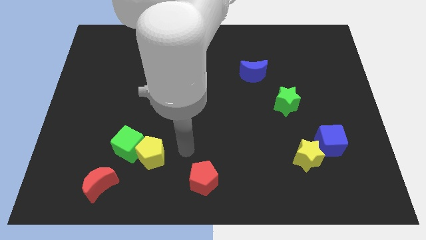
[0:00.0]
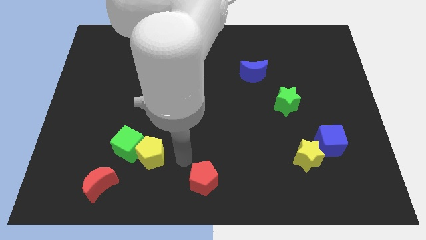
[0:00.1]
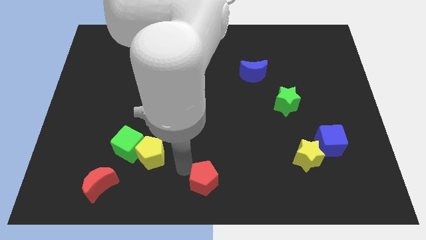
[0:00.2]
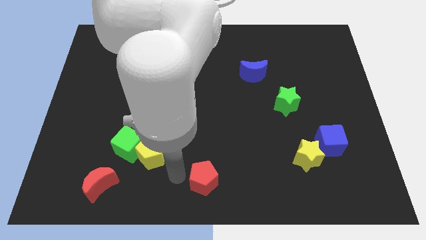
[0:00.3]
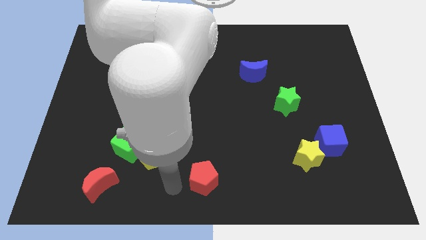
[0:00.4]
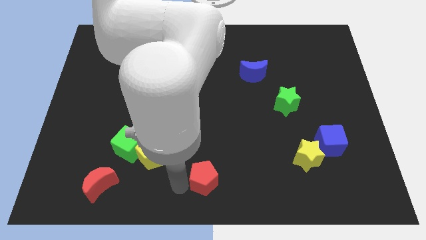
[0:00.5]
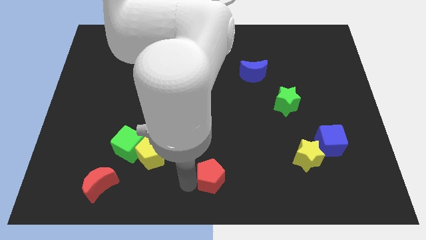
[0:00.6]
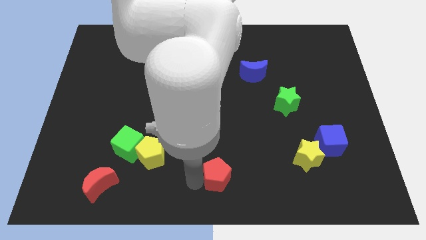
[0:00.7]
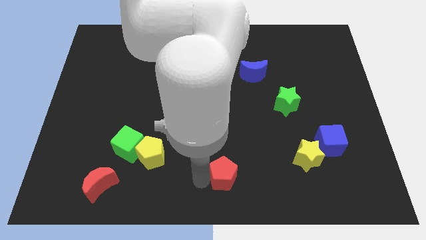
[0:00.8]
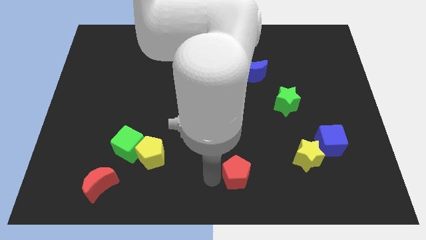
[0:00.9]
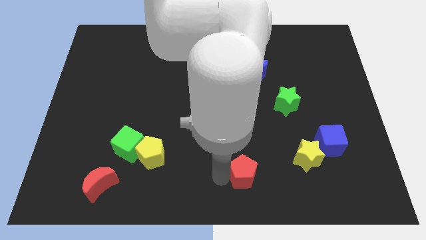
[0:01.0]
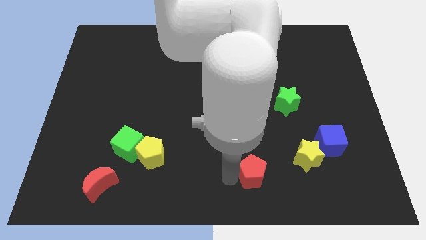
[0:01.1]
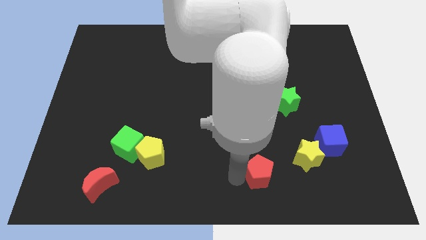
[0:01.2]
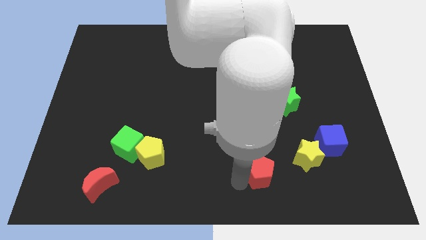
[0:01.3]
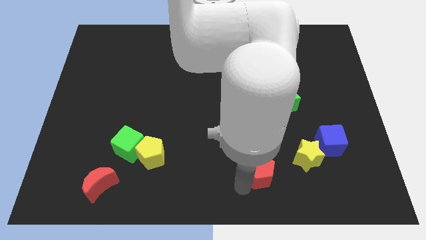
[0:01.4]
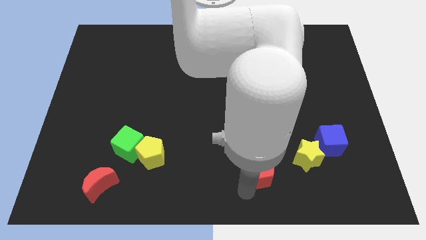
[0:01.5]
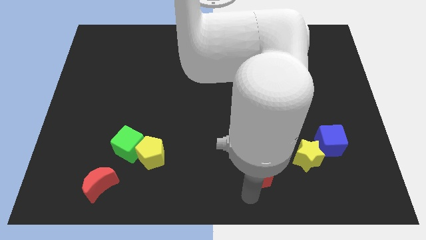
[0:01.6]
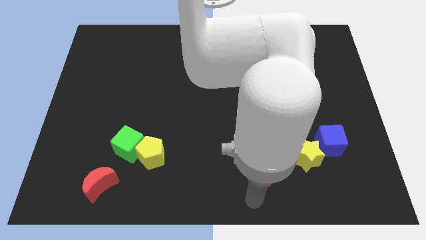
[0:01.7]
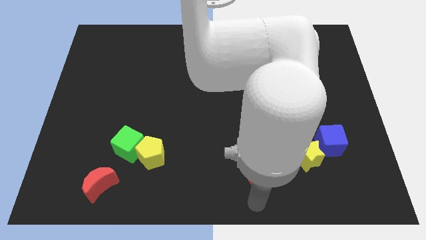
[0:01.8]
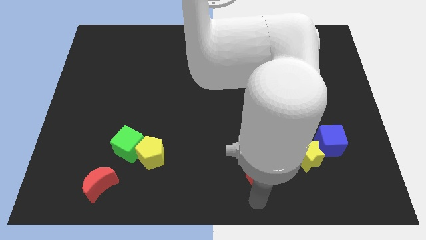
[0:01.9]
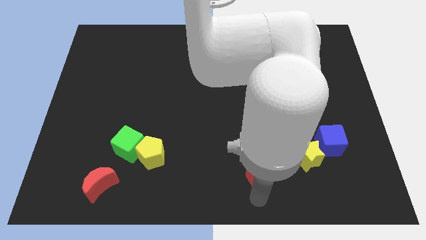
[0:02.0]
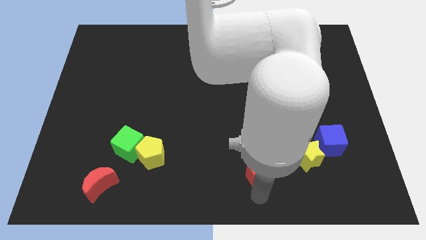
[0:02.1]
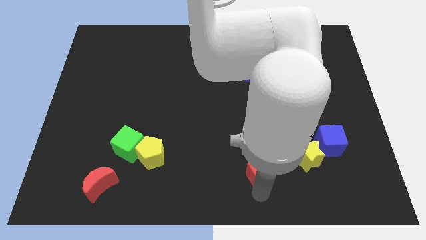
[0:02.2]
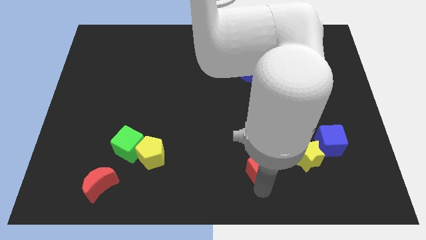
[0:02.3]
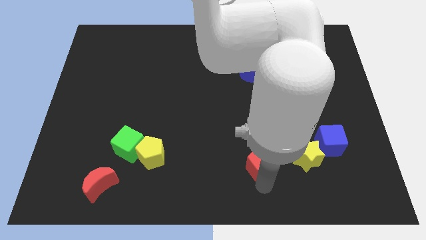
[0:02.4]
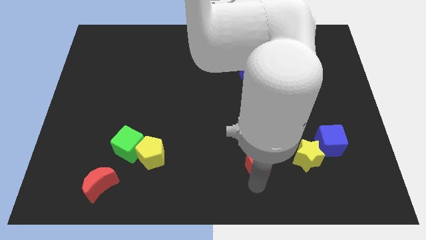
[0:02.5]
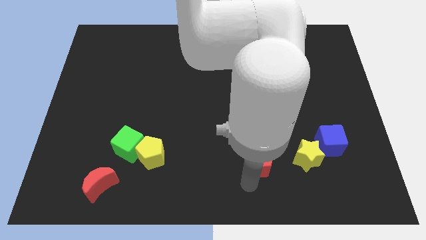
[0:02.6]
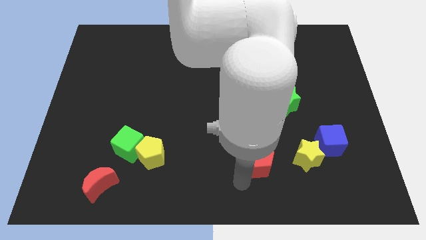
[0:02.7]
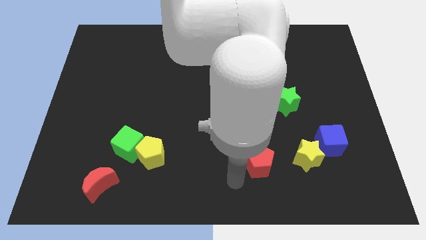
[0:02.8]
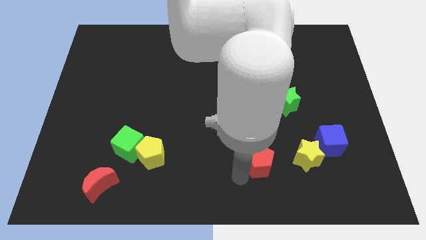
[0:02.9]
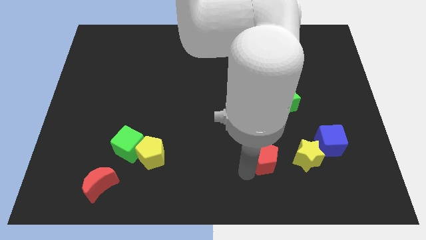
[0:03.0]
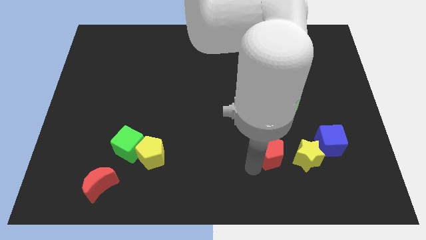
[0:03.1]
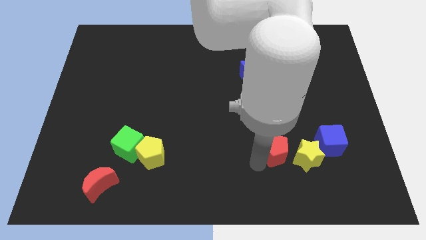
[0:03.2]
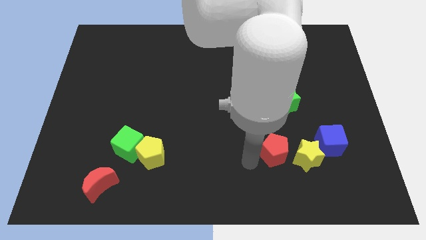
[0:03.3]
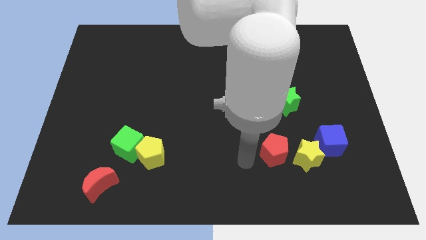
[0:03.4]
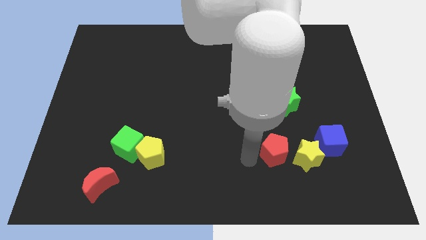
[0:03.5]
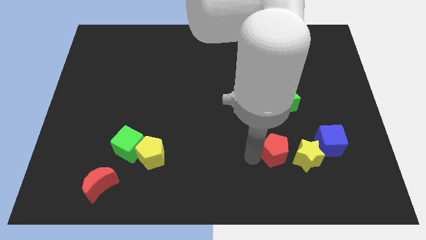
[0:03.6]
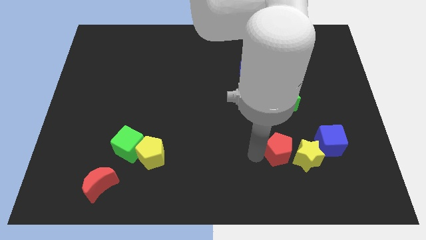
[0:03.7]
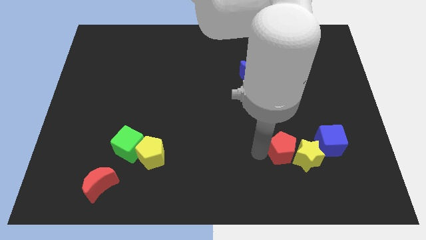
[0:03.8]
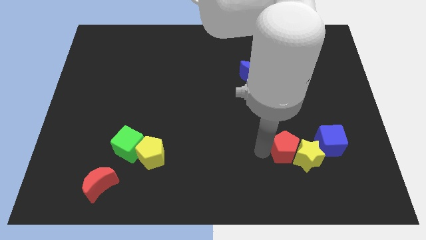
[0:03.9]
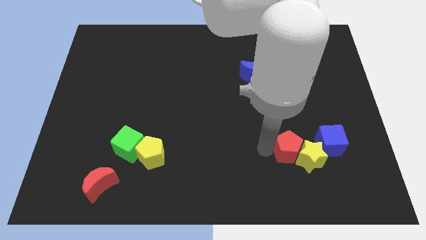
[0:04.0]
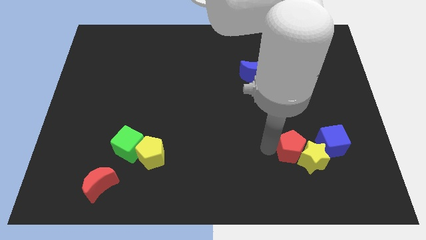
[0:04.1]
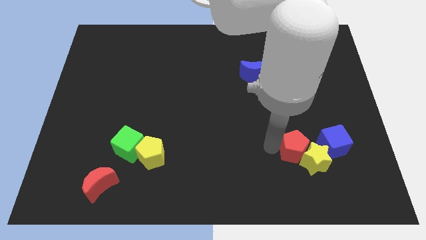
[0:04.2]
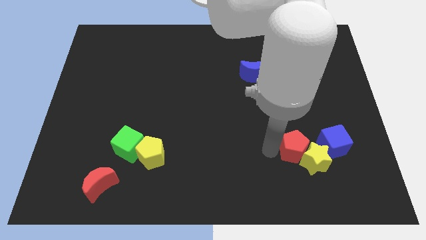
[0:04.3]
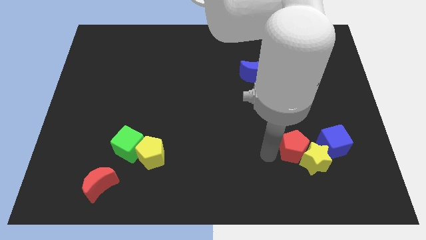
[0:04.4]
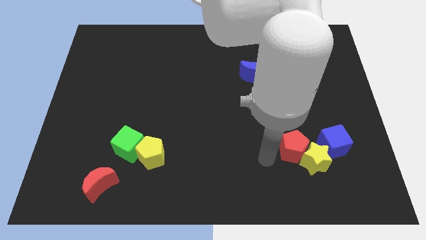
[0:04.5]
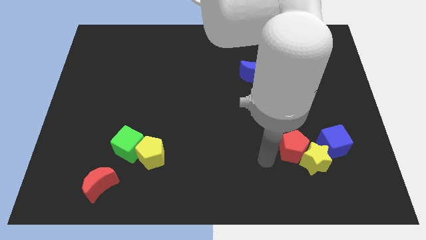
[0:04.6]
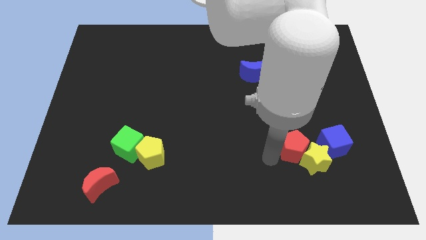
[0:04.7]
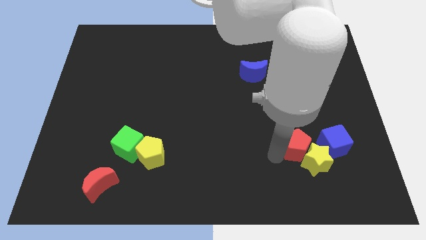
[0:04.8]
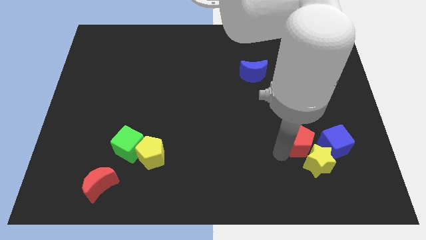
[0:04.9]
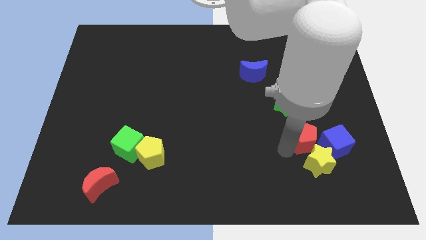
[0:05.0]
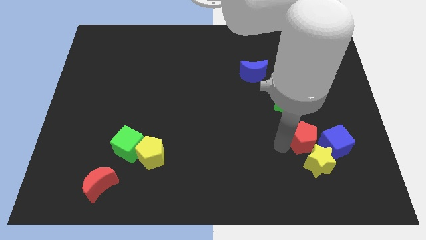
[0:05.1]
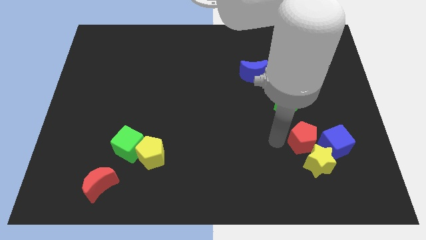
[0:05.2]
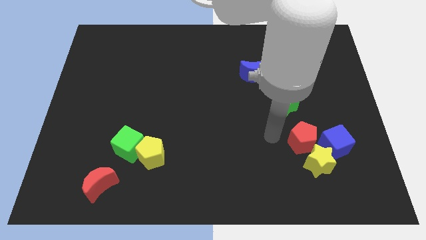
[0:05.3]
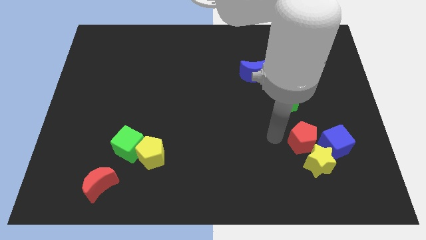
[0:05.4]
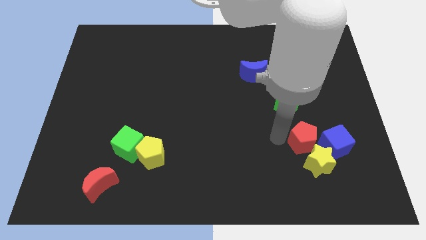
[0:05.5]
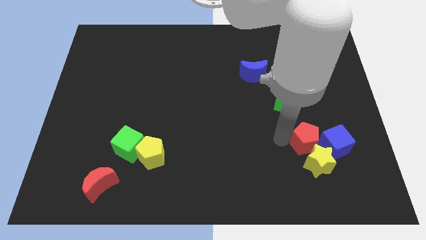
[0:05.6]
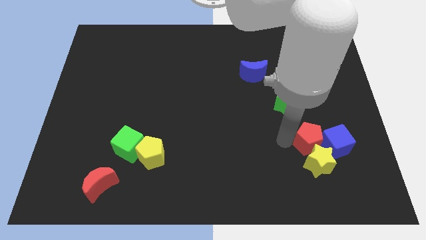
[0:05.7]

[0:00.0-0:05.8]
move the red pentagon close to the blue cube
